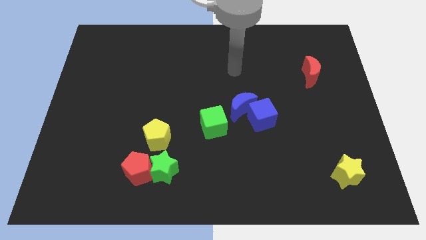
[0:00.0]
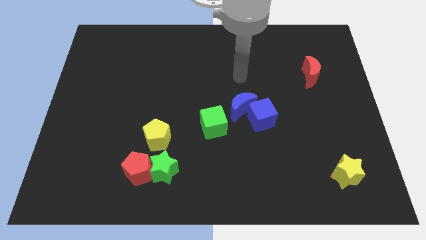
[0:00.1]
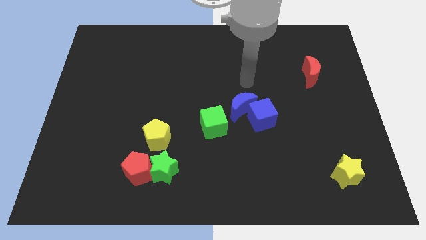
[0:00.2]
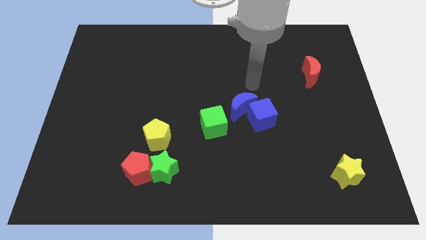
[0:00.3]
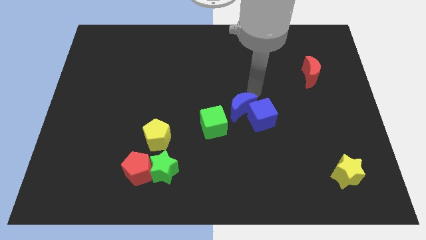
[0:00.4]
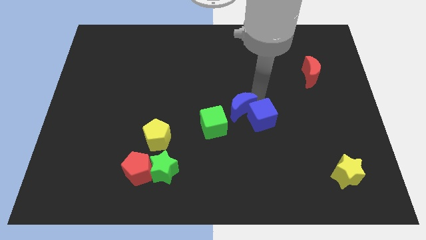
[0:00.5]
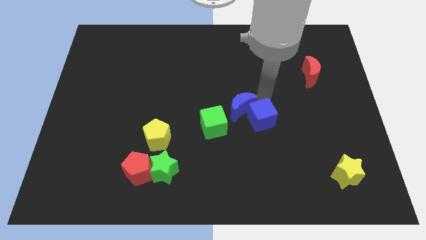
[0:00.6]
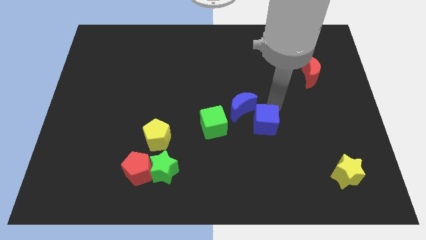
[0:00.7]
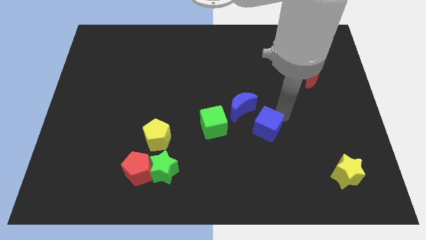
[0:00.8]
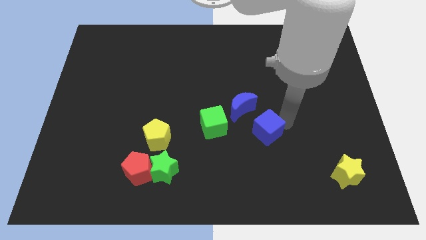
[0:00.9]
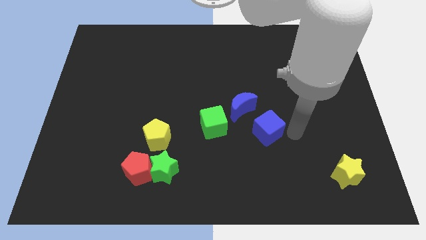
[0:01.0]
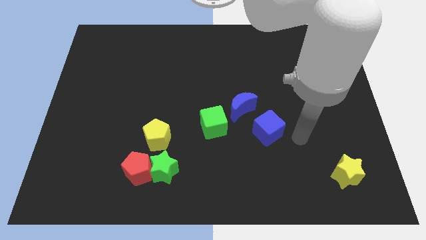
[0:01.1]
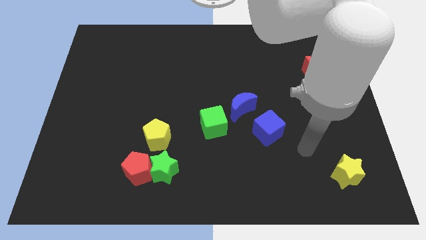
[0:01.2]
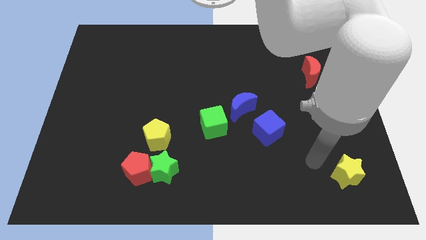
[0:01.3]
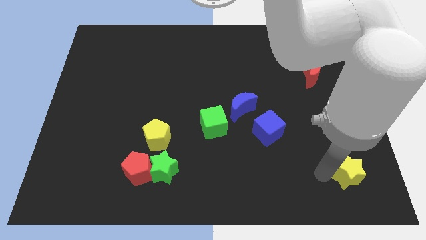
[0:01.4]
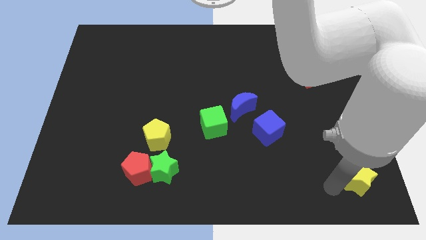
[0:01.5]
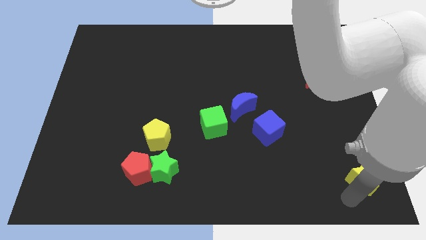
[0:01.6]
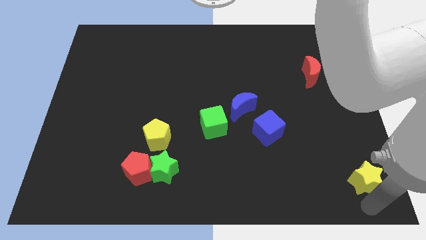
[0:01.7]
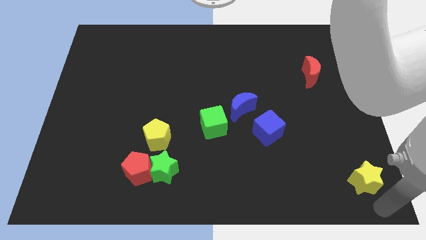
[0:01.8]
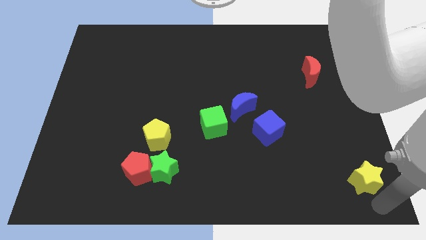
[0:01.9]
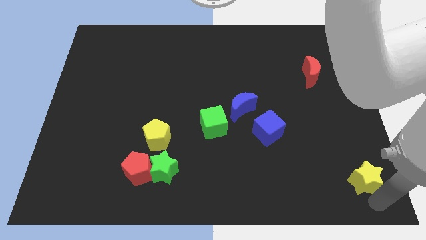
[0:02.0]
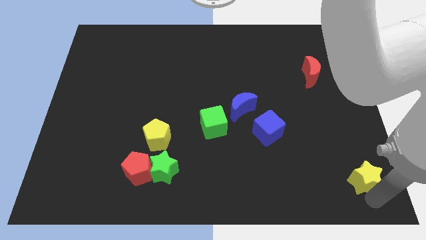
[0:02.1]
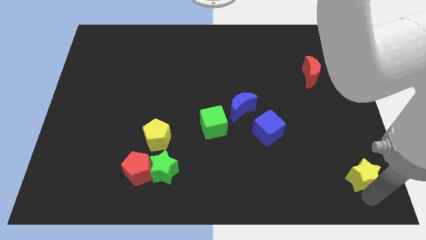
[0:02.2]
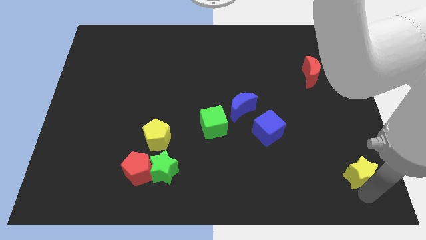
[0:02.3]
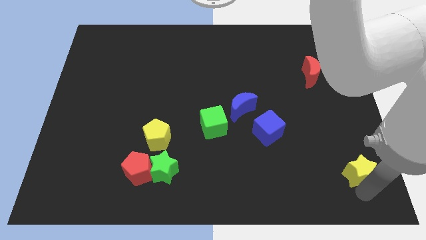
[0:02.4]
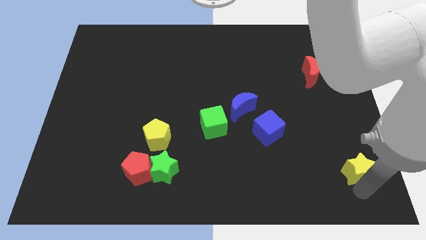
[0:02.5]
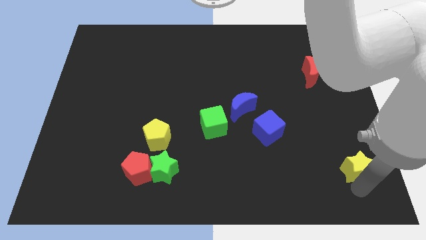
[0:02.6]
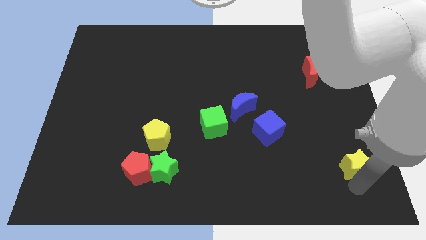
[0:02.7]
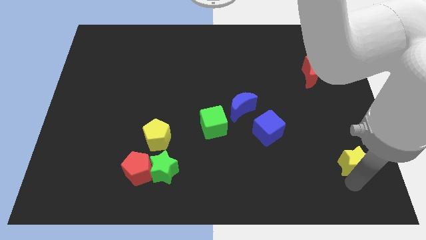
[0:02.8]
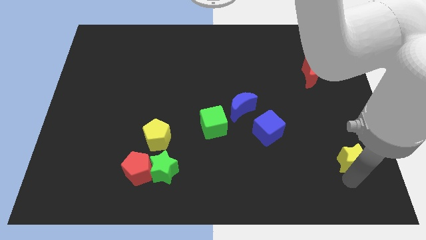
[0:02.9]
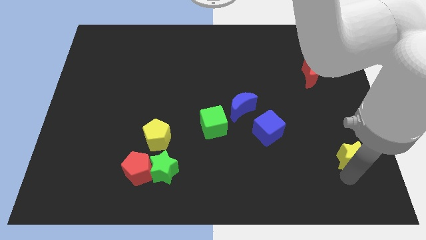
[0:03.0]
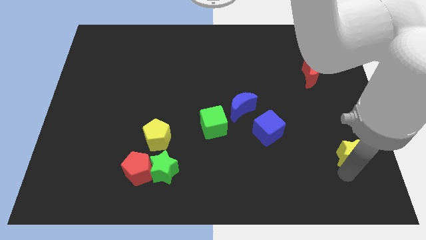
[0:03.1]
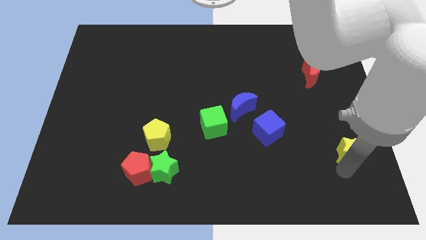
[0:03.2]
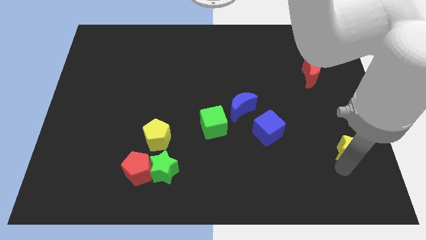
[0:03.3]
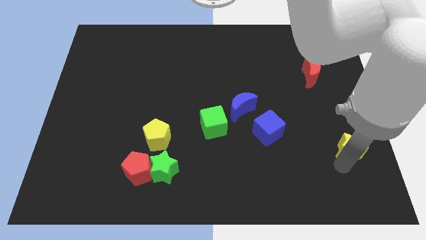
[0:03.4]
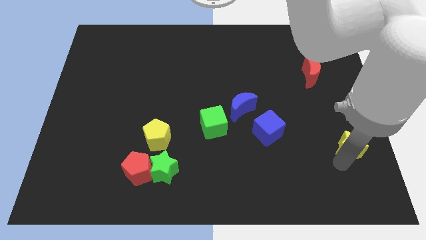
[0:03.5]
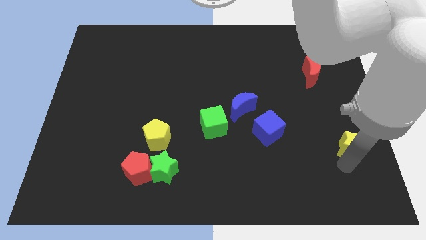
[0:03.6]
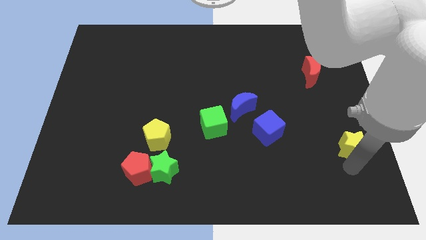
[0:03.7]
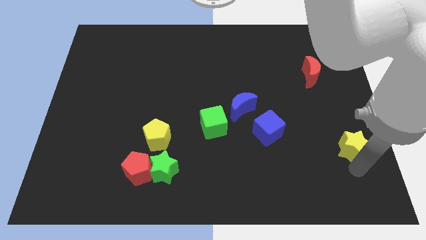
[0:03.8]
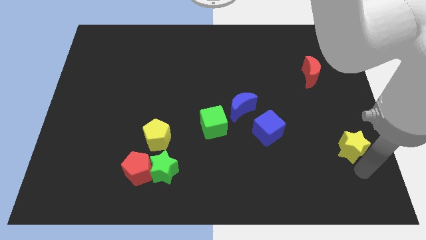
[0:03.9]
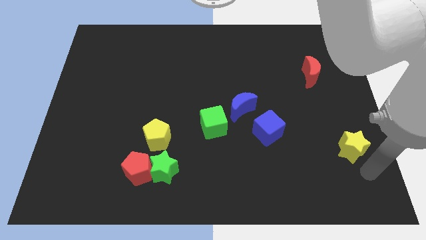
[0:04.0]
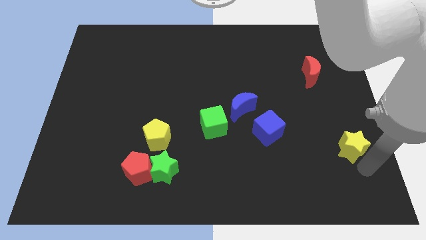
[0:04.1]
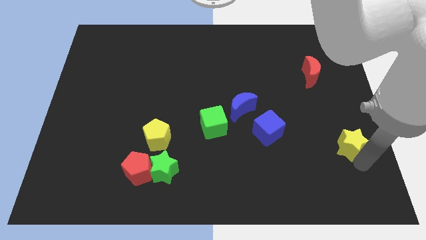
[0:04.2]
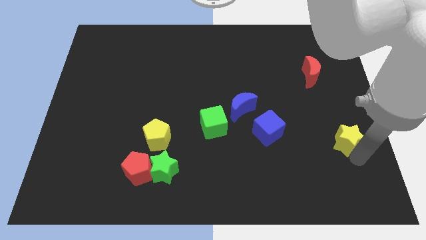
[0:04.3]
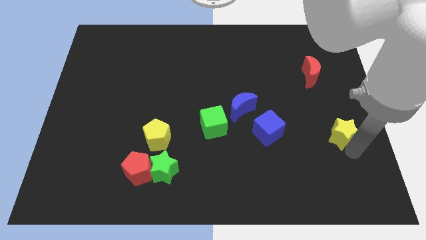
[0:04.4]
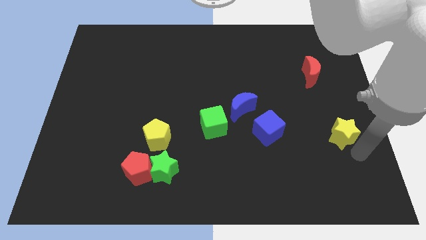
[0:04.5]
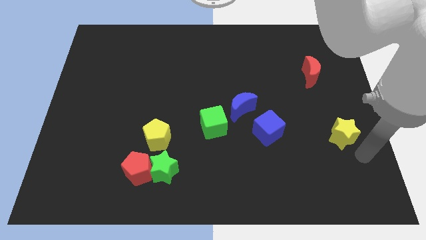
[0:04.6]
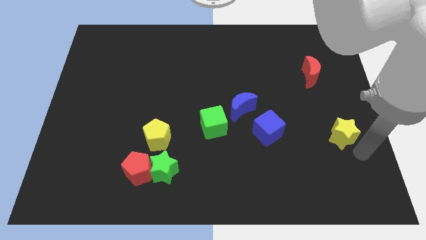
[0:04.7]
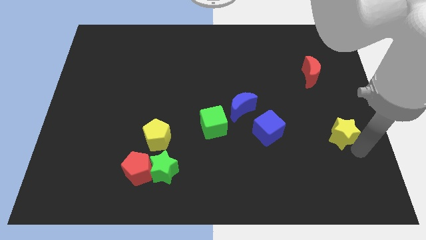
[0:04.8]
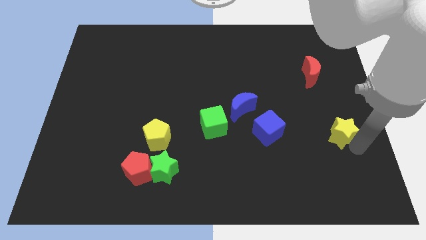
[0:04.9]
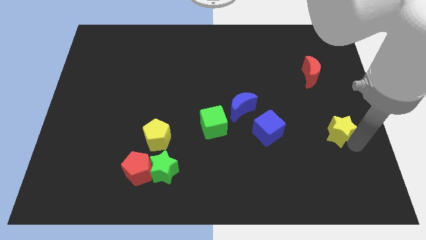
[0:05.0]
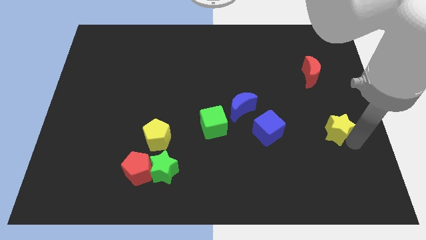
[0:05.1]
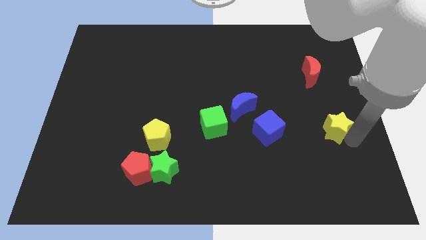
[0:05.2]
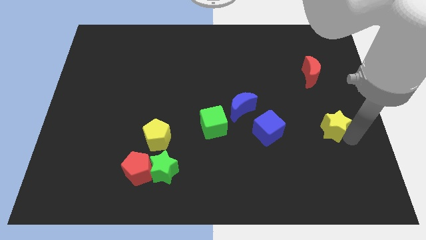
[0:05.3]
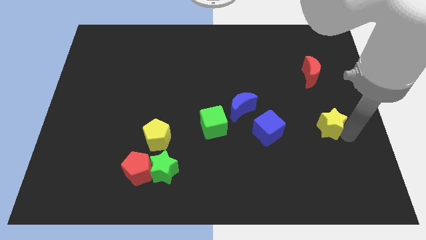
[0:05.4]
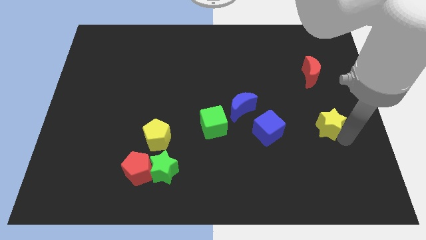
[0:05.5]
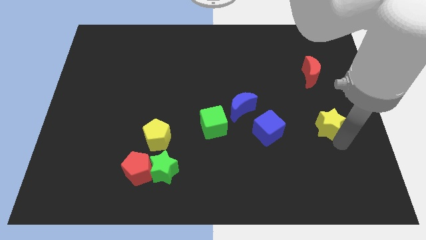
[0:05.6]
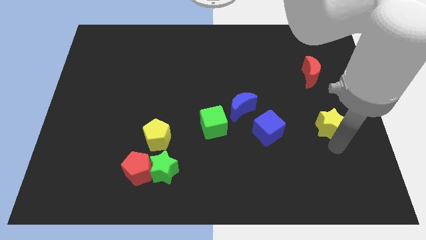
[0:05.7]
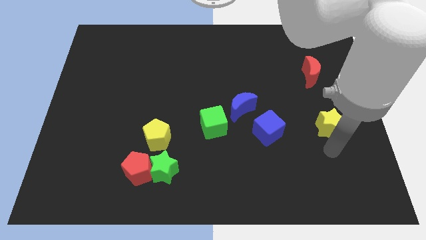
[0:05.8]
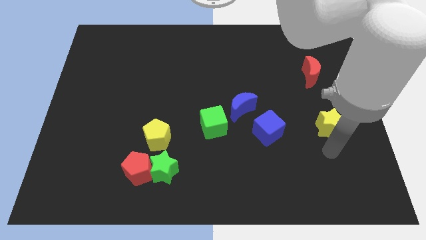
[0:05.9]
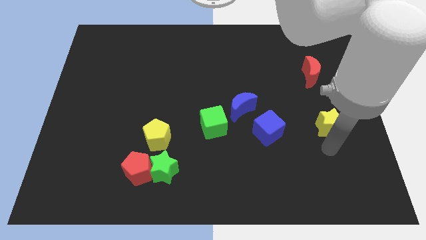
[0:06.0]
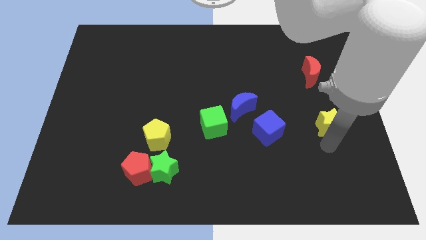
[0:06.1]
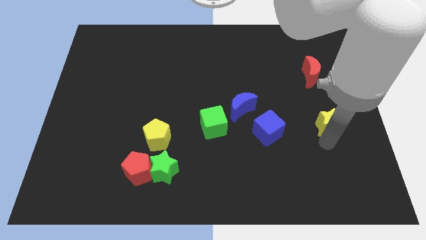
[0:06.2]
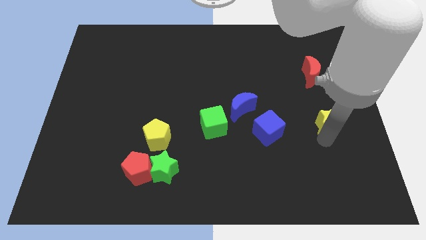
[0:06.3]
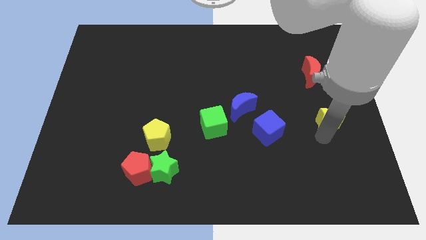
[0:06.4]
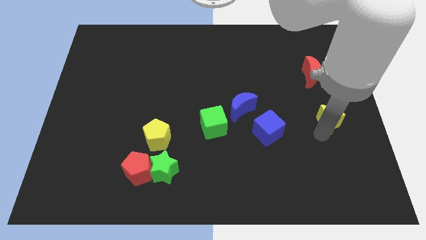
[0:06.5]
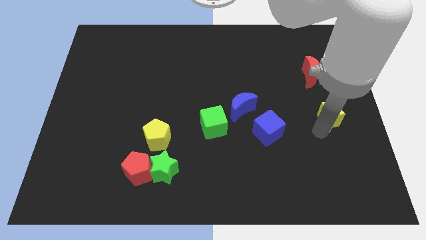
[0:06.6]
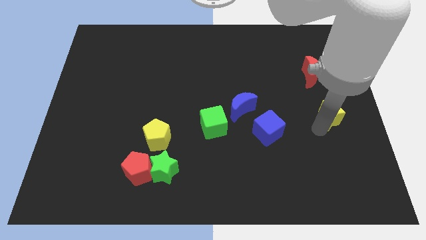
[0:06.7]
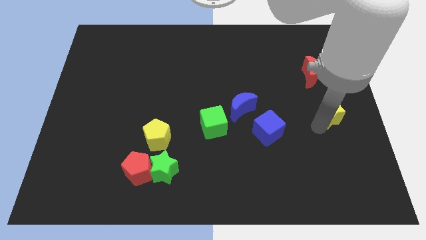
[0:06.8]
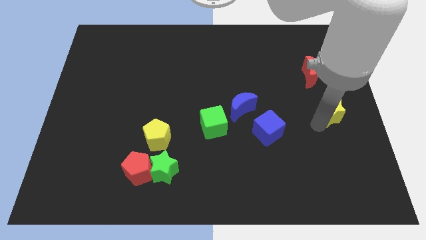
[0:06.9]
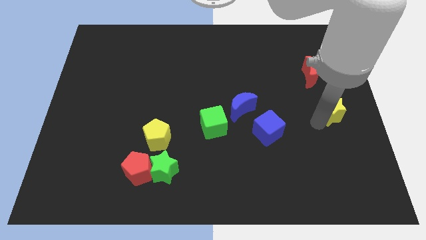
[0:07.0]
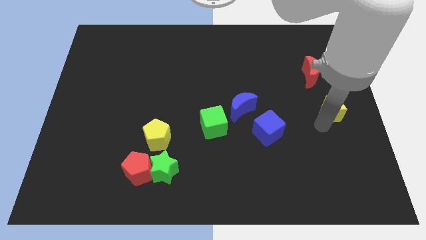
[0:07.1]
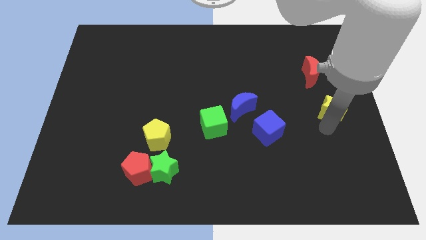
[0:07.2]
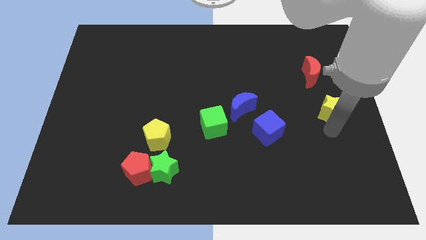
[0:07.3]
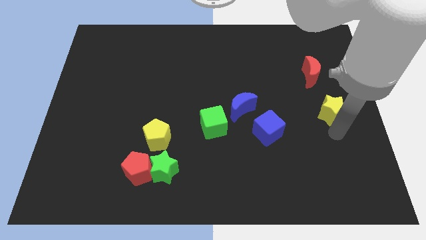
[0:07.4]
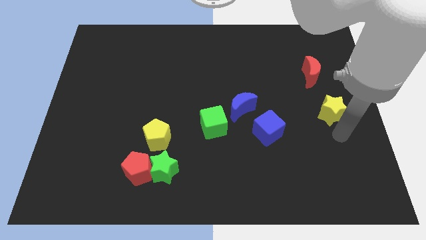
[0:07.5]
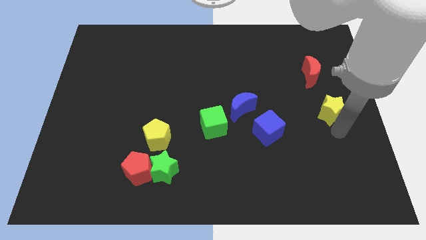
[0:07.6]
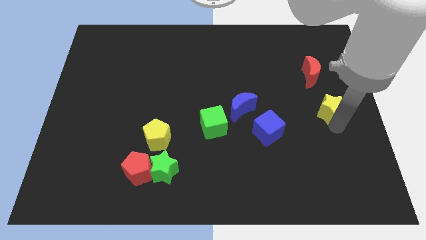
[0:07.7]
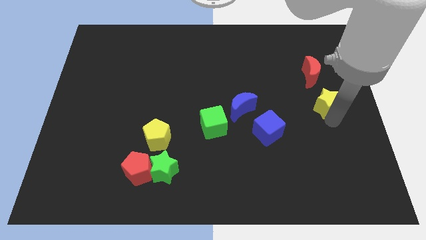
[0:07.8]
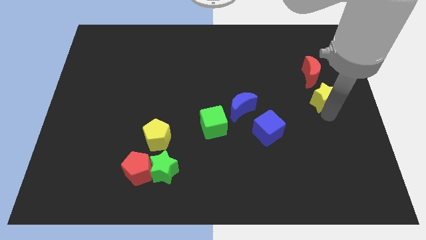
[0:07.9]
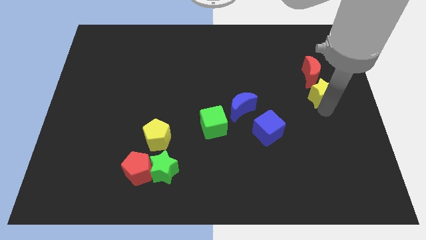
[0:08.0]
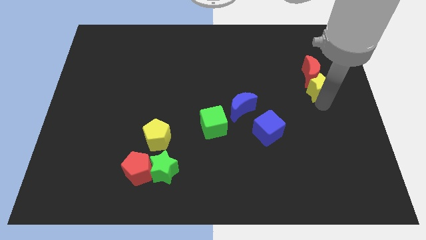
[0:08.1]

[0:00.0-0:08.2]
put the yellow star next to the red moon
